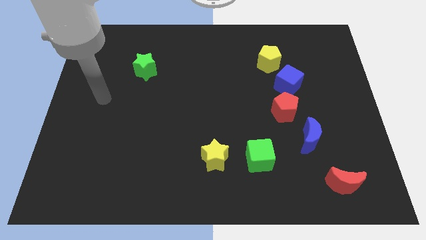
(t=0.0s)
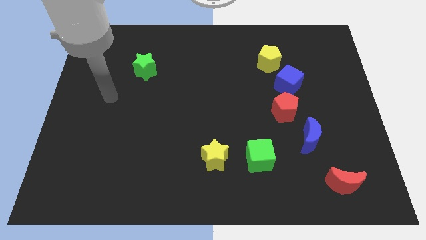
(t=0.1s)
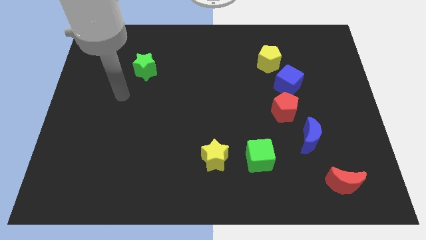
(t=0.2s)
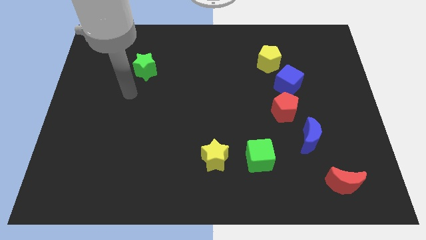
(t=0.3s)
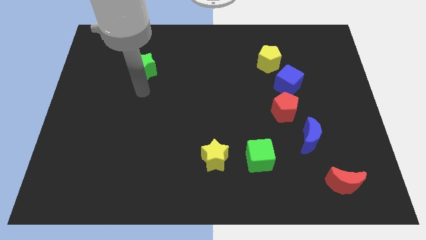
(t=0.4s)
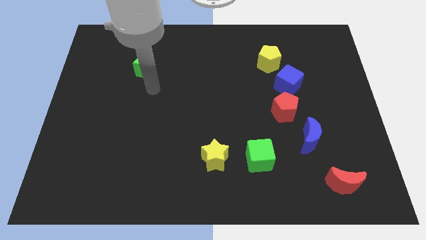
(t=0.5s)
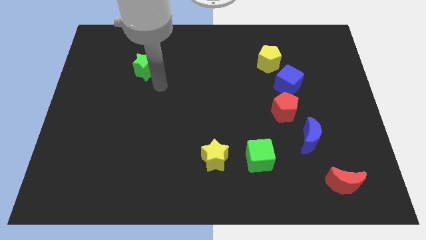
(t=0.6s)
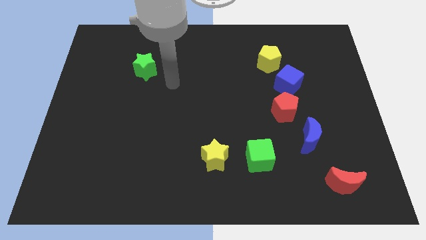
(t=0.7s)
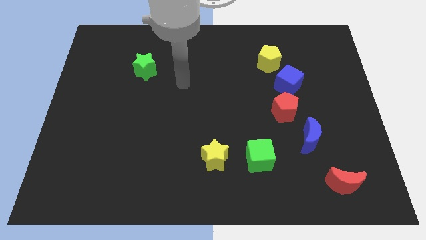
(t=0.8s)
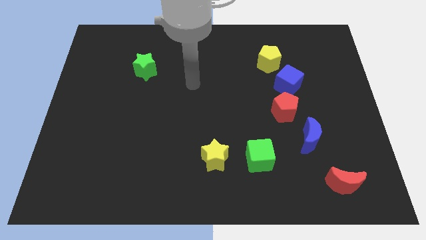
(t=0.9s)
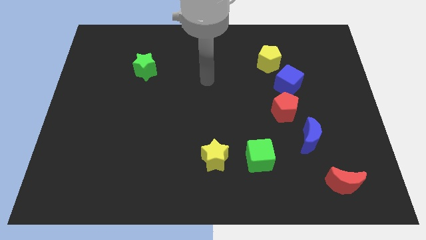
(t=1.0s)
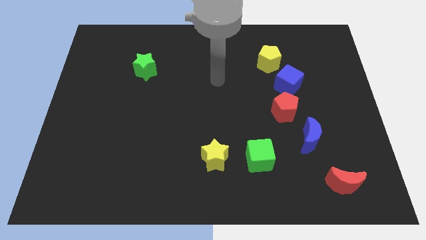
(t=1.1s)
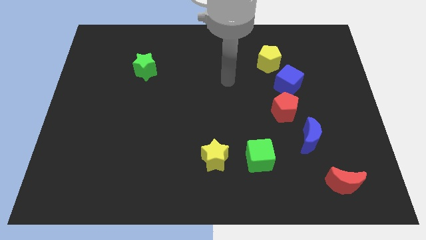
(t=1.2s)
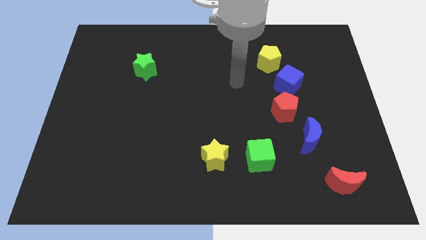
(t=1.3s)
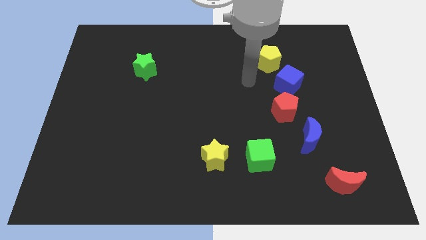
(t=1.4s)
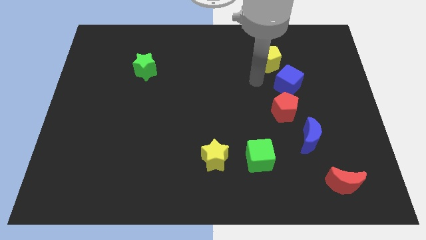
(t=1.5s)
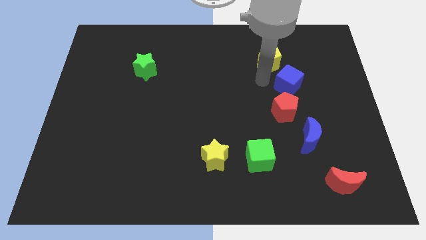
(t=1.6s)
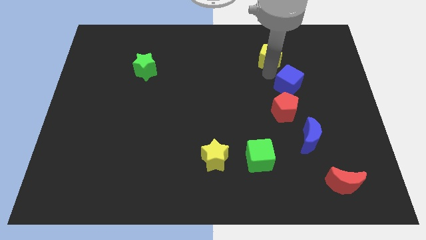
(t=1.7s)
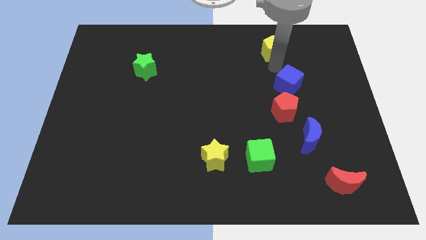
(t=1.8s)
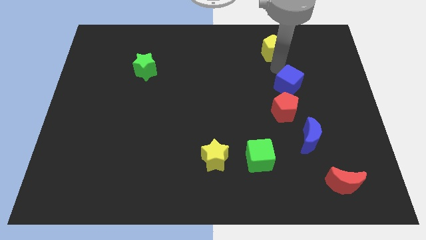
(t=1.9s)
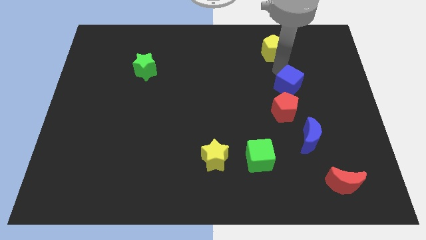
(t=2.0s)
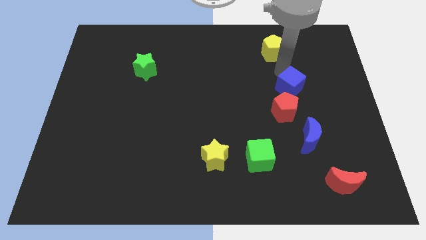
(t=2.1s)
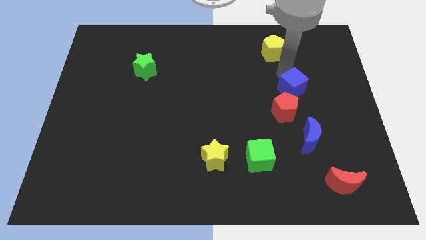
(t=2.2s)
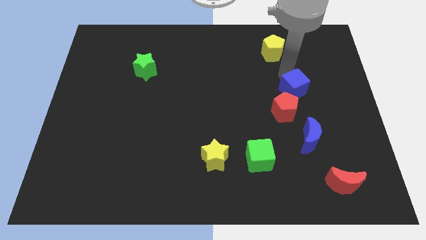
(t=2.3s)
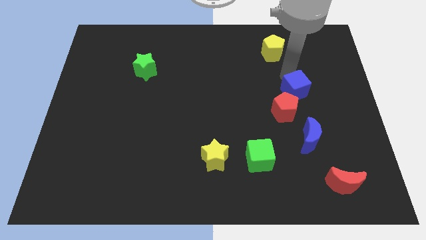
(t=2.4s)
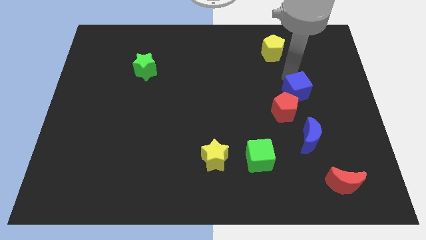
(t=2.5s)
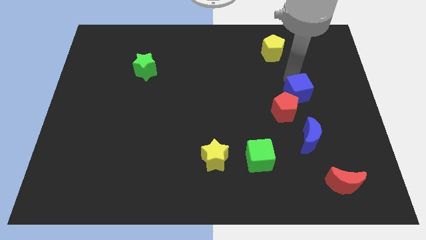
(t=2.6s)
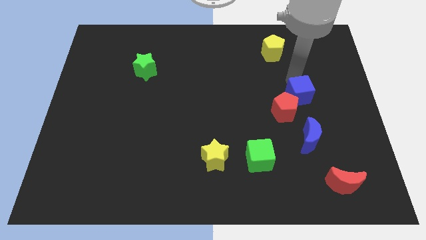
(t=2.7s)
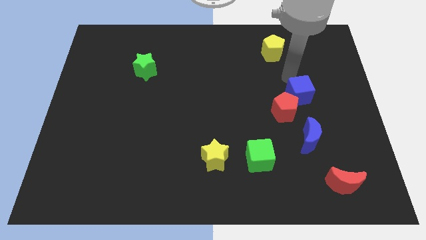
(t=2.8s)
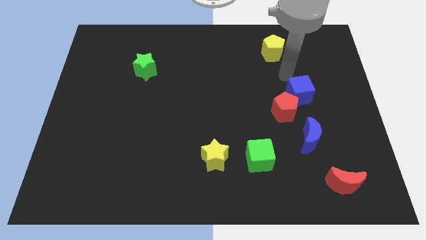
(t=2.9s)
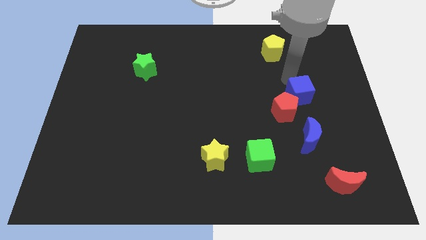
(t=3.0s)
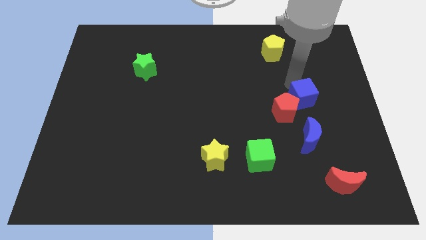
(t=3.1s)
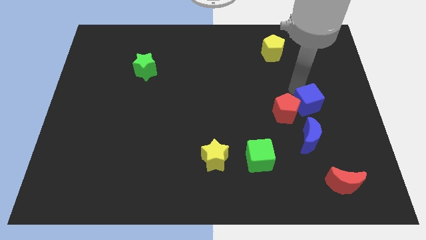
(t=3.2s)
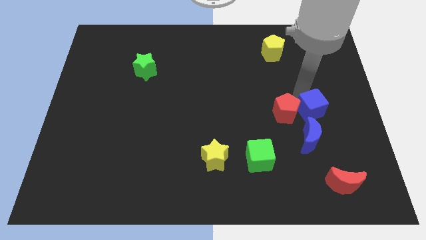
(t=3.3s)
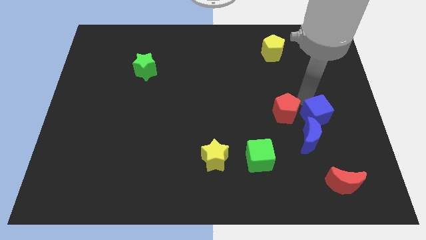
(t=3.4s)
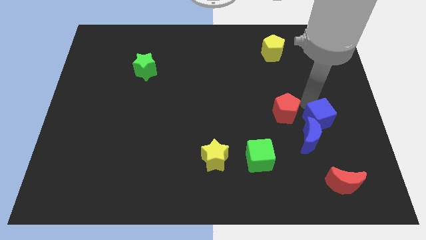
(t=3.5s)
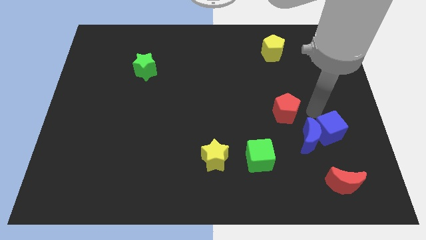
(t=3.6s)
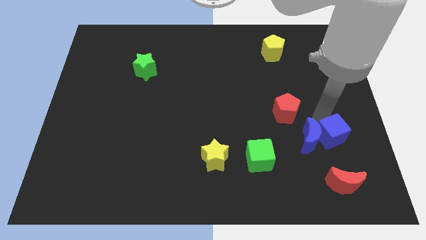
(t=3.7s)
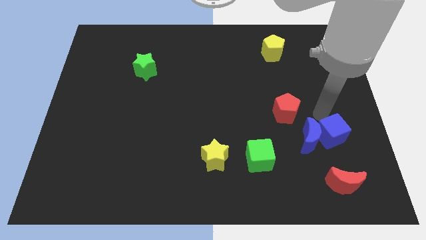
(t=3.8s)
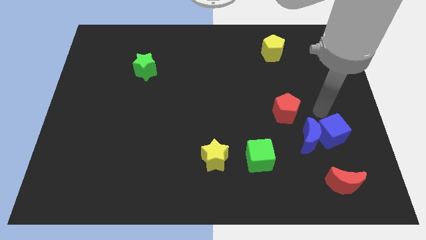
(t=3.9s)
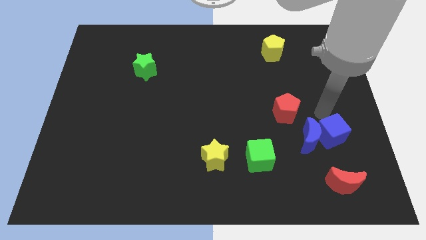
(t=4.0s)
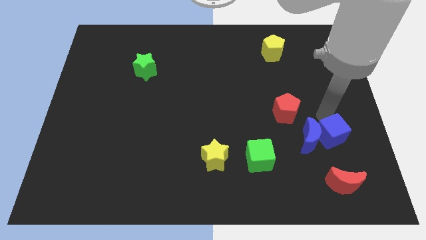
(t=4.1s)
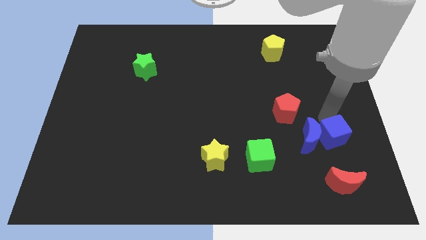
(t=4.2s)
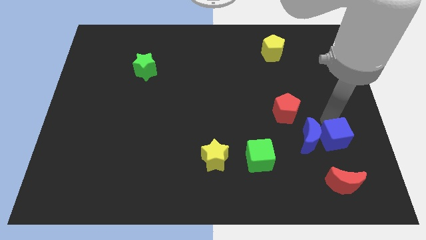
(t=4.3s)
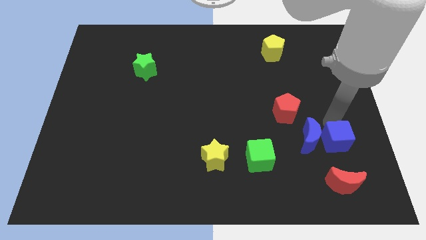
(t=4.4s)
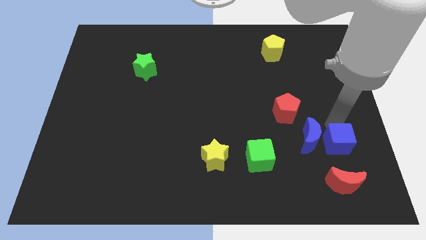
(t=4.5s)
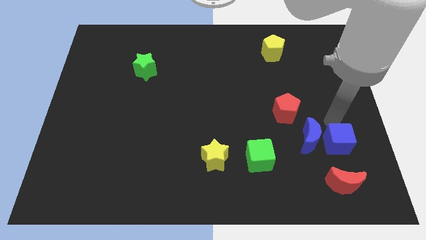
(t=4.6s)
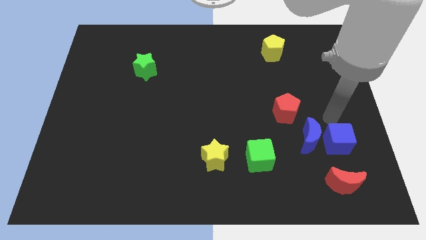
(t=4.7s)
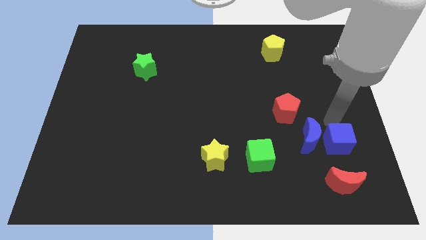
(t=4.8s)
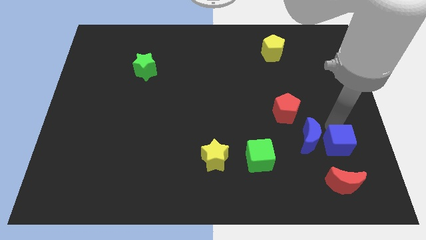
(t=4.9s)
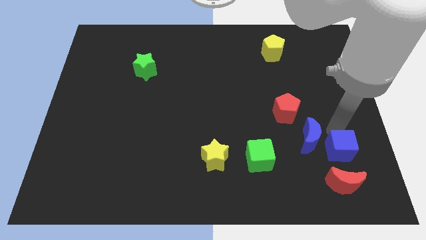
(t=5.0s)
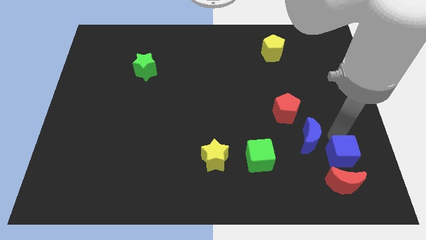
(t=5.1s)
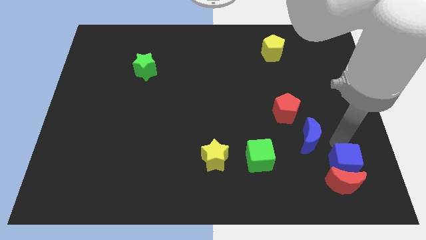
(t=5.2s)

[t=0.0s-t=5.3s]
move the blue cube close to the red moon

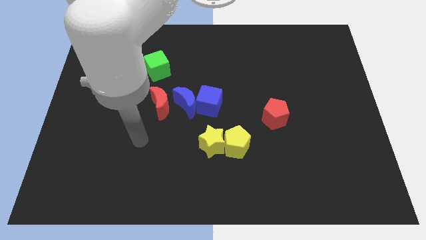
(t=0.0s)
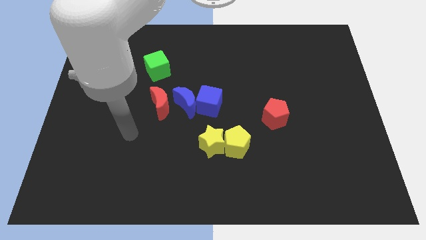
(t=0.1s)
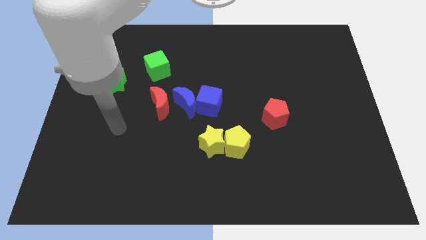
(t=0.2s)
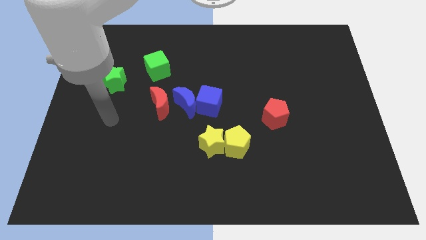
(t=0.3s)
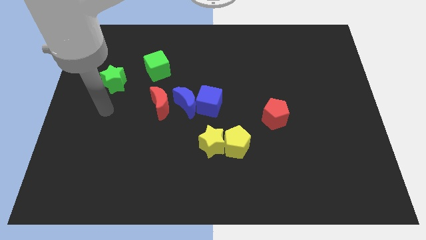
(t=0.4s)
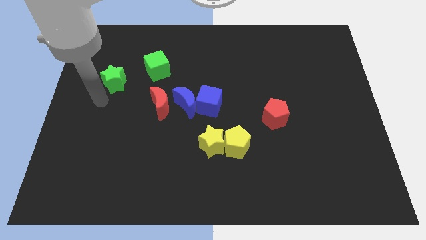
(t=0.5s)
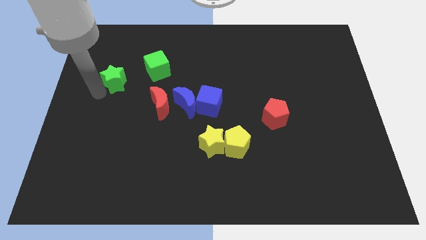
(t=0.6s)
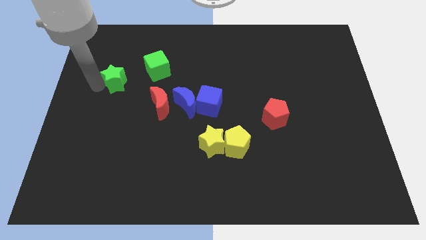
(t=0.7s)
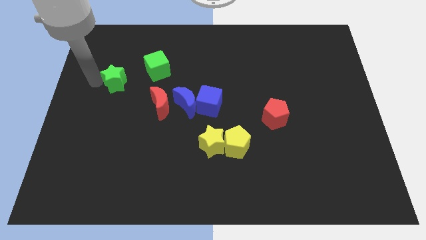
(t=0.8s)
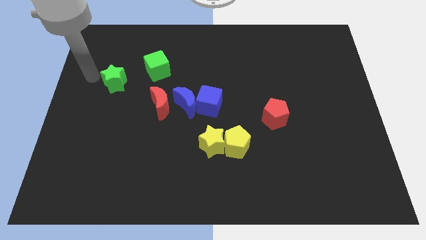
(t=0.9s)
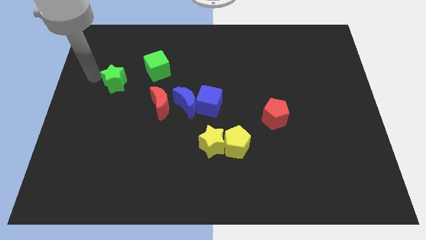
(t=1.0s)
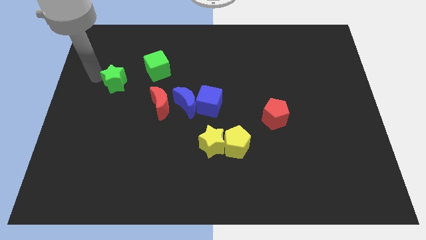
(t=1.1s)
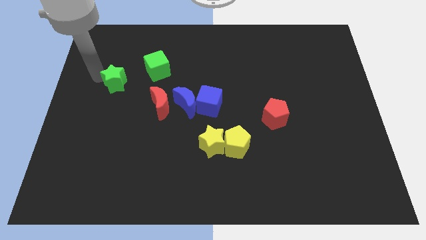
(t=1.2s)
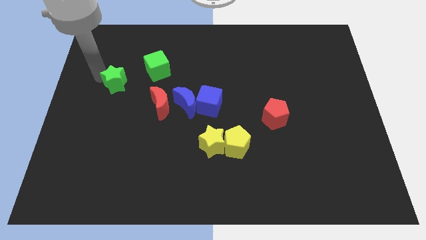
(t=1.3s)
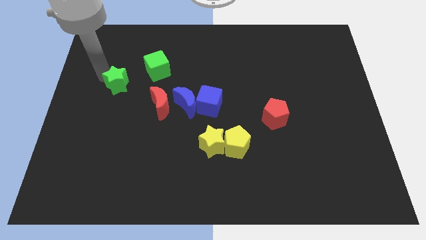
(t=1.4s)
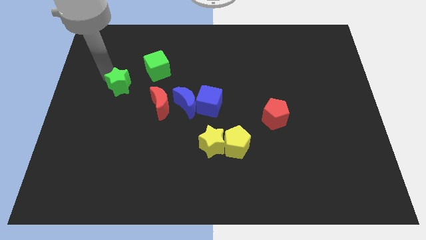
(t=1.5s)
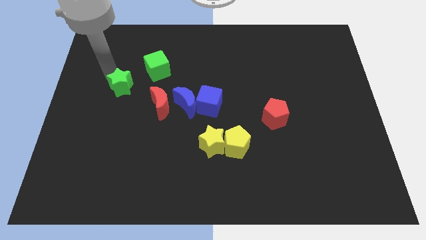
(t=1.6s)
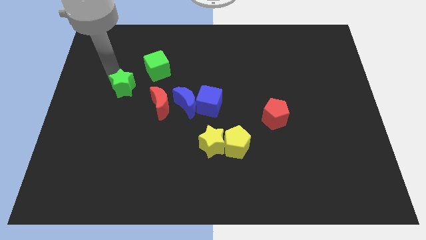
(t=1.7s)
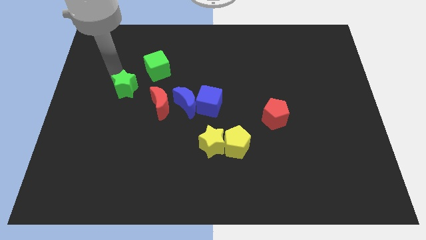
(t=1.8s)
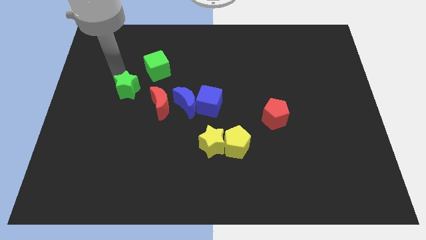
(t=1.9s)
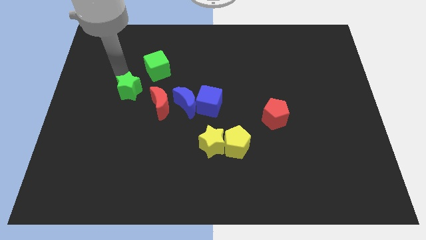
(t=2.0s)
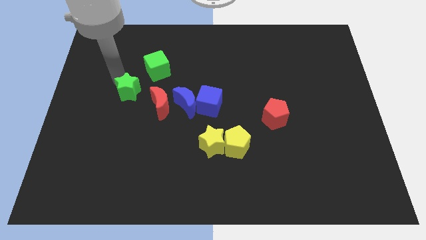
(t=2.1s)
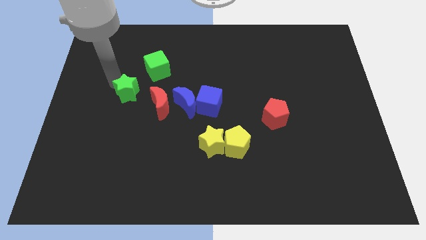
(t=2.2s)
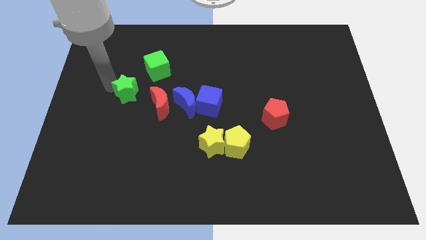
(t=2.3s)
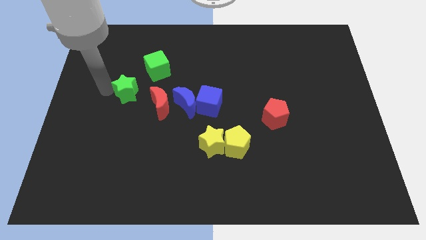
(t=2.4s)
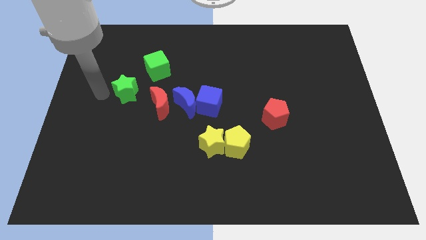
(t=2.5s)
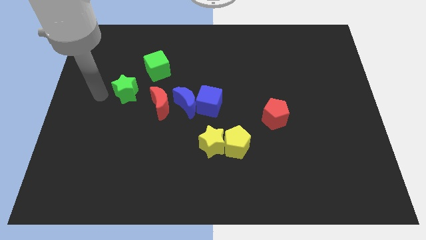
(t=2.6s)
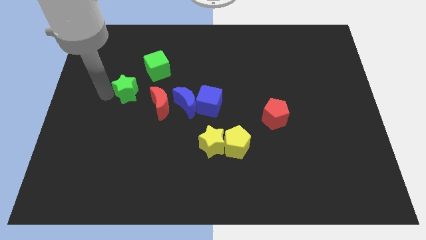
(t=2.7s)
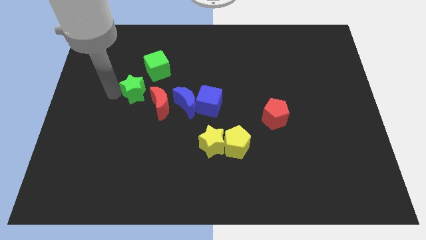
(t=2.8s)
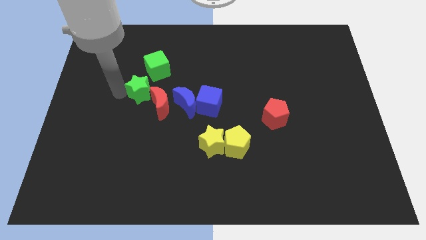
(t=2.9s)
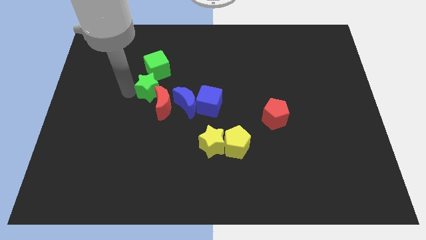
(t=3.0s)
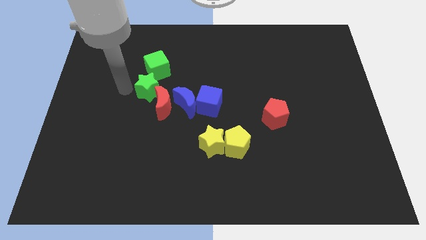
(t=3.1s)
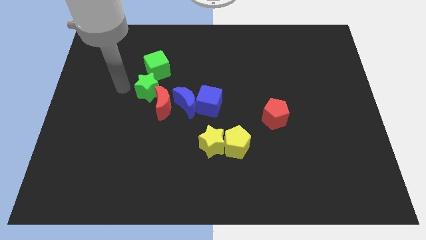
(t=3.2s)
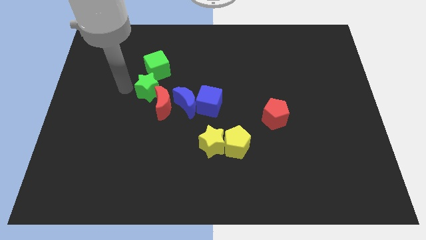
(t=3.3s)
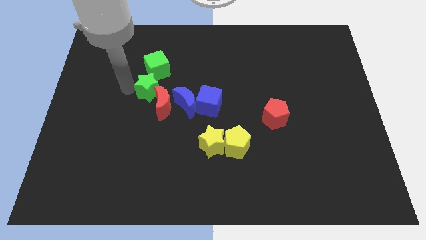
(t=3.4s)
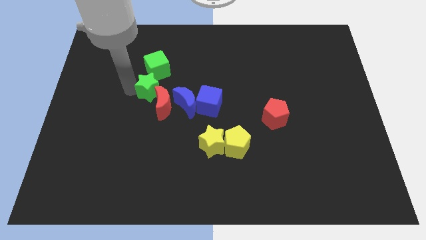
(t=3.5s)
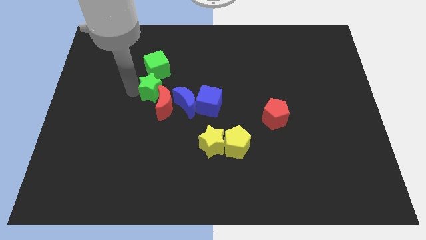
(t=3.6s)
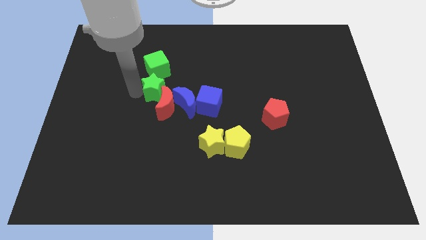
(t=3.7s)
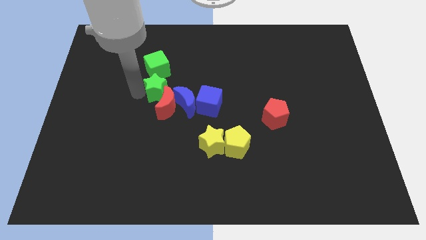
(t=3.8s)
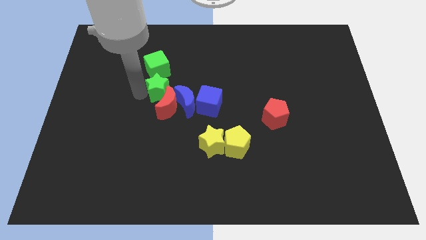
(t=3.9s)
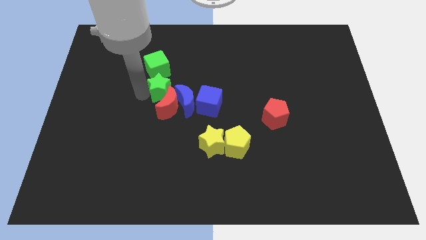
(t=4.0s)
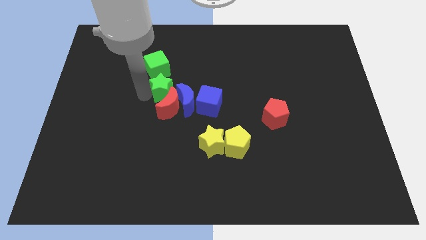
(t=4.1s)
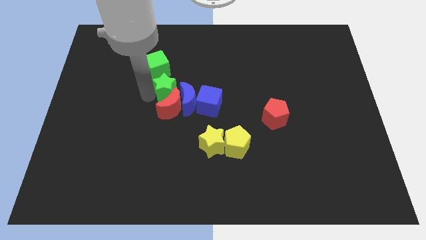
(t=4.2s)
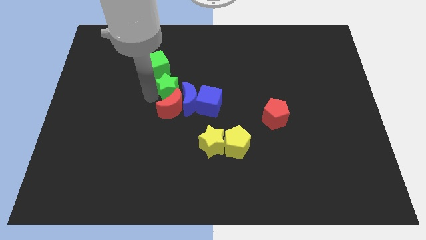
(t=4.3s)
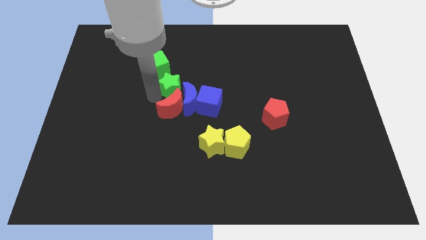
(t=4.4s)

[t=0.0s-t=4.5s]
move the green star towards the blue moon
